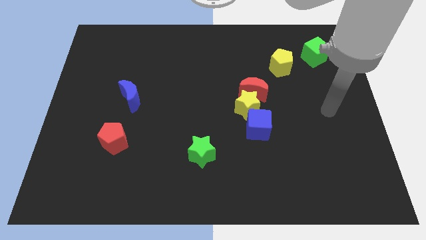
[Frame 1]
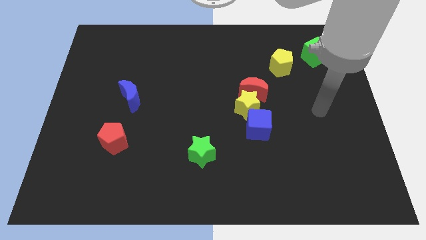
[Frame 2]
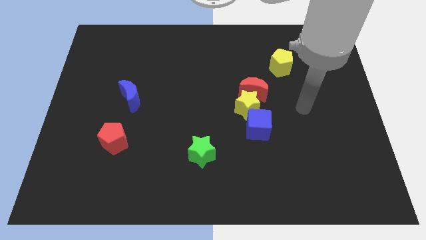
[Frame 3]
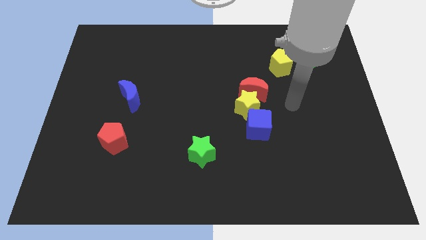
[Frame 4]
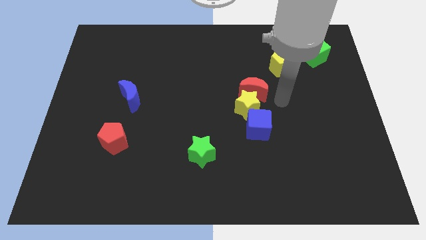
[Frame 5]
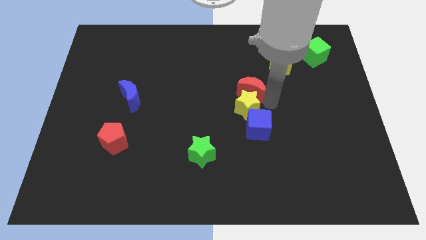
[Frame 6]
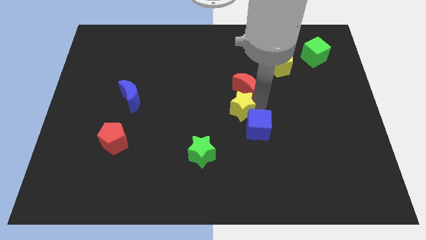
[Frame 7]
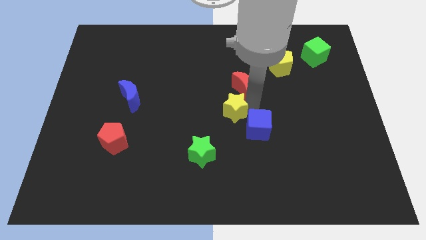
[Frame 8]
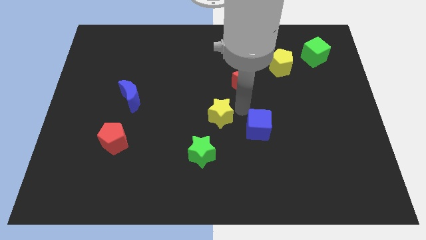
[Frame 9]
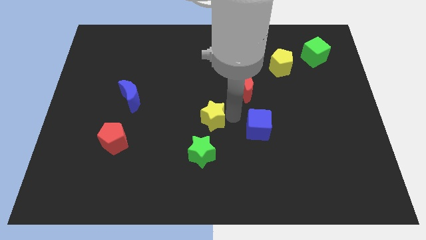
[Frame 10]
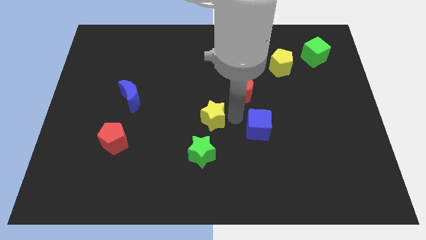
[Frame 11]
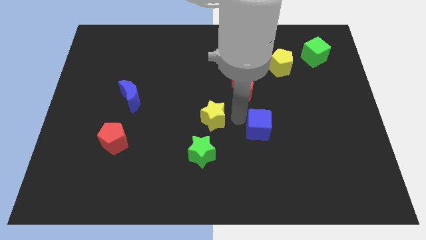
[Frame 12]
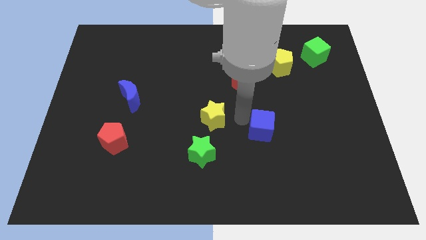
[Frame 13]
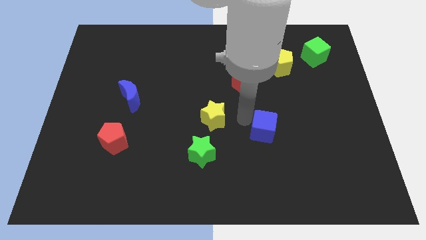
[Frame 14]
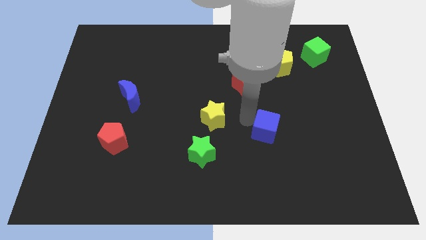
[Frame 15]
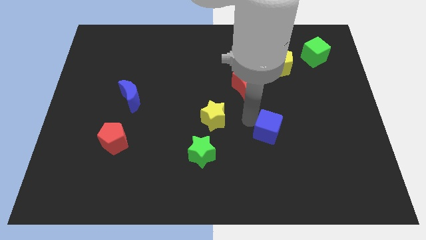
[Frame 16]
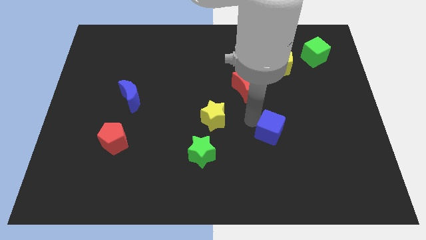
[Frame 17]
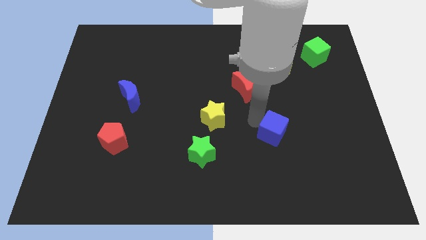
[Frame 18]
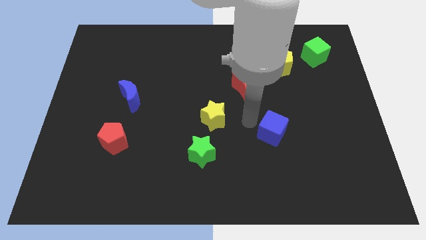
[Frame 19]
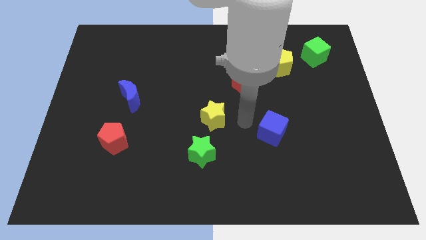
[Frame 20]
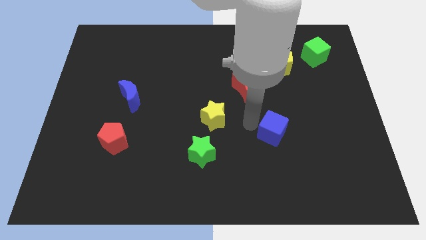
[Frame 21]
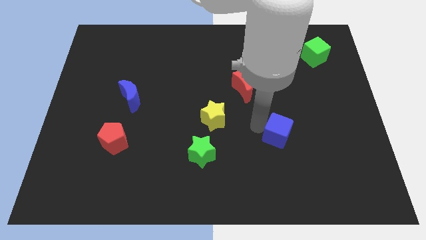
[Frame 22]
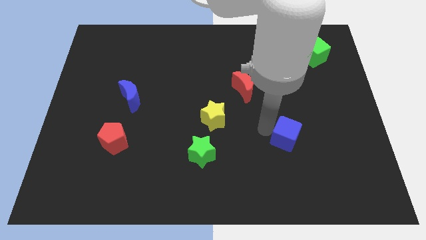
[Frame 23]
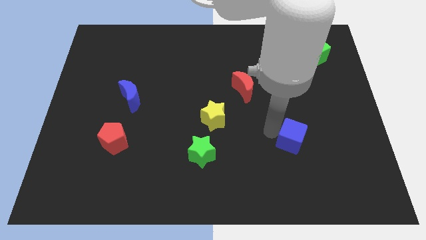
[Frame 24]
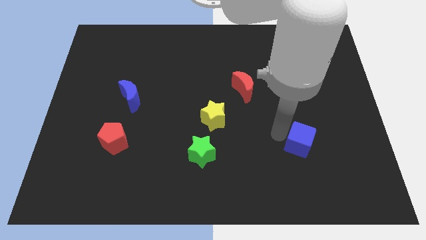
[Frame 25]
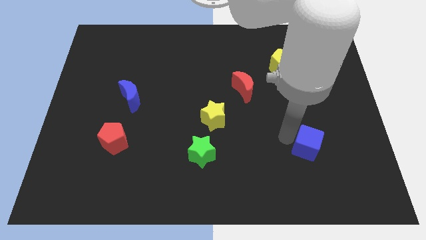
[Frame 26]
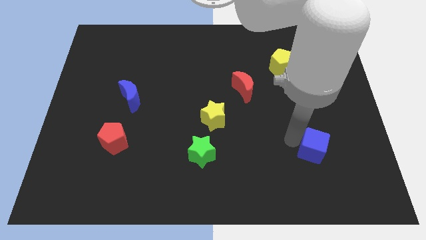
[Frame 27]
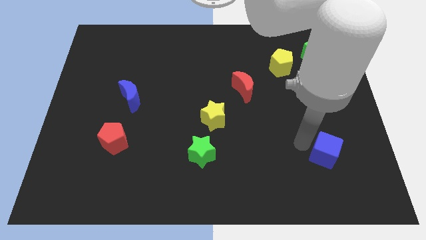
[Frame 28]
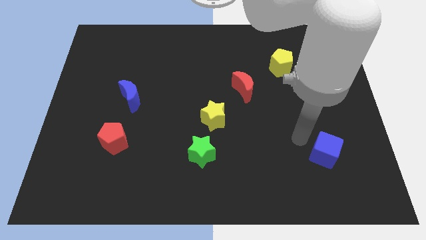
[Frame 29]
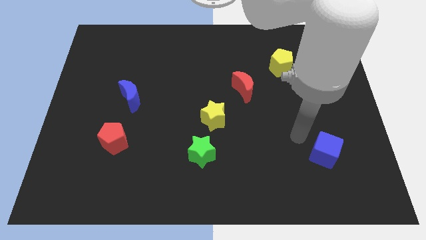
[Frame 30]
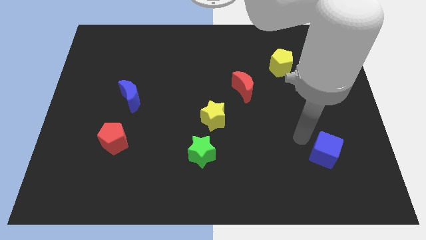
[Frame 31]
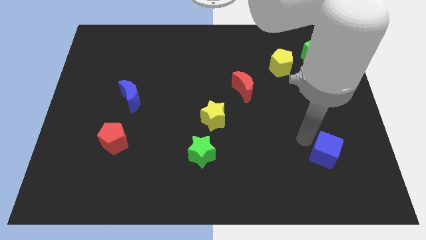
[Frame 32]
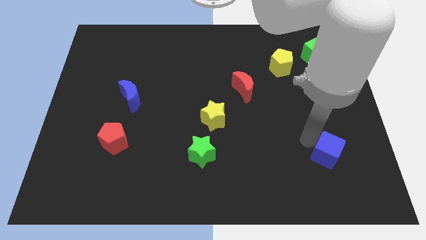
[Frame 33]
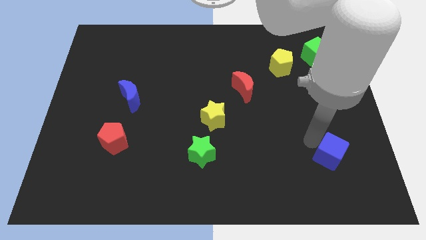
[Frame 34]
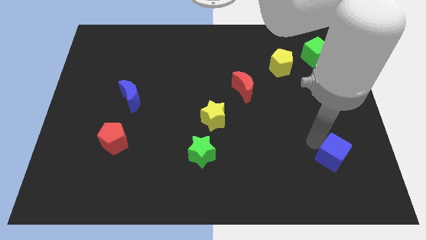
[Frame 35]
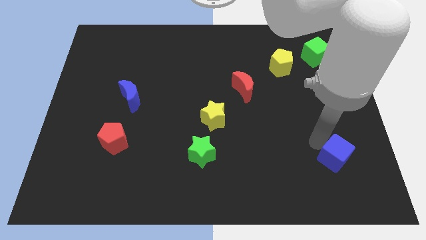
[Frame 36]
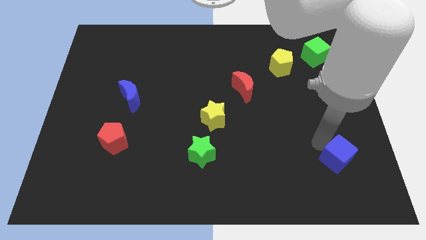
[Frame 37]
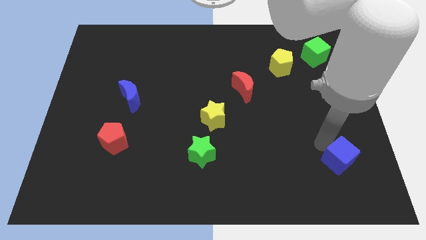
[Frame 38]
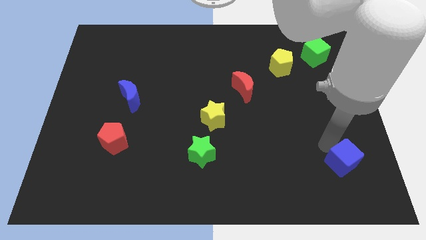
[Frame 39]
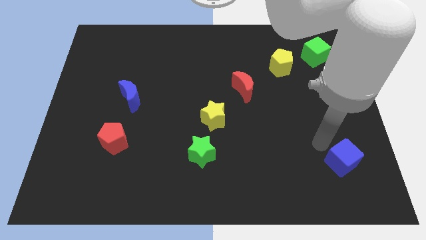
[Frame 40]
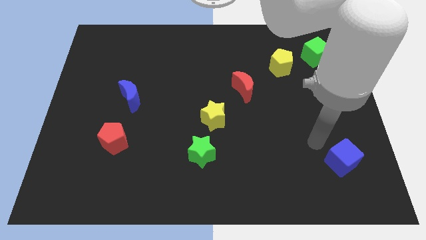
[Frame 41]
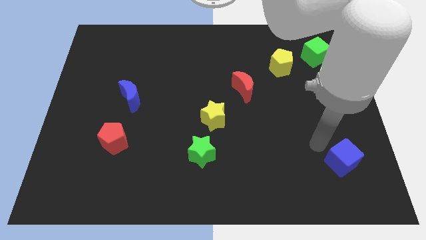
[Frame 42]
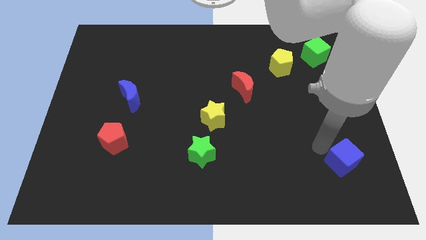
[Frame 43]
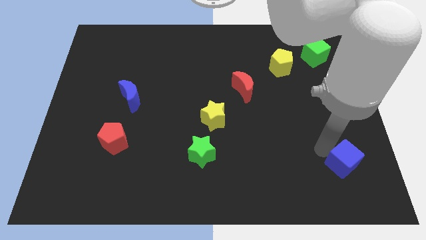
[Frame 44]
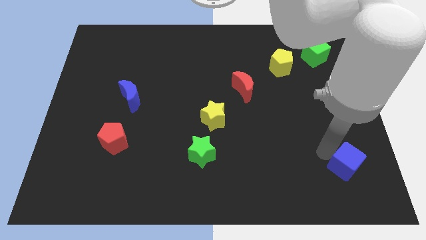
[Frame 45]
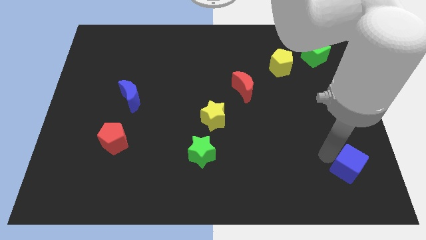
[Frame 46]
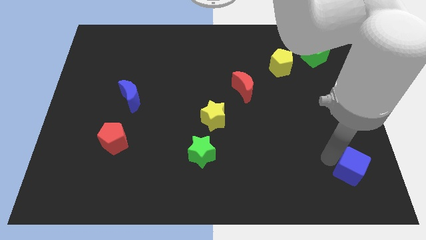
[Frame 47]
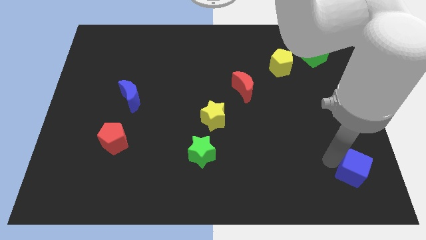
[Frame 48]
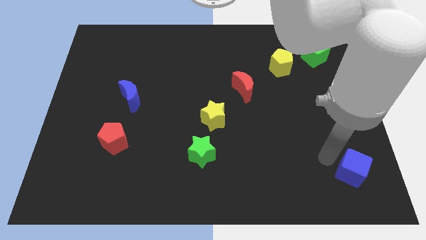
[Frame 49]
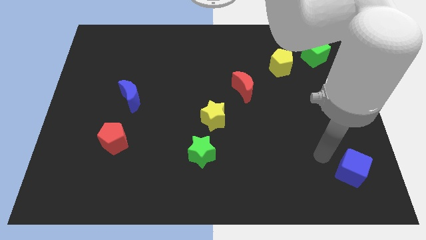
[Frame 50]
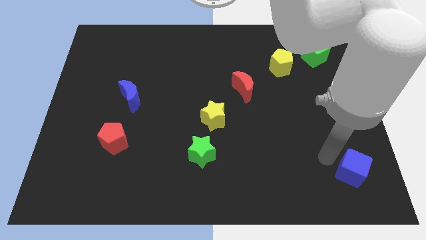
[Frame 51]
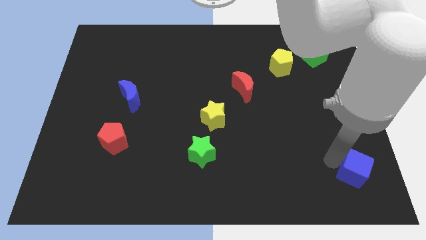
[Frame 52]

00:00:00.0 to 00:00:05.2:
slide the blue cube to the bottom right corner

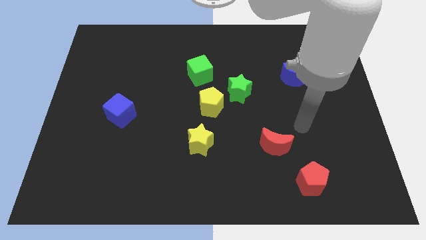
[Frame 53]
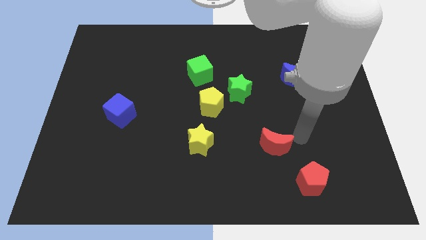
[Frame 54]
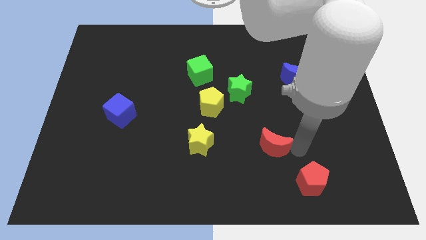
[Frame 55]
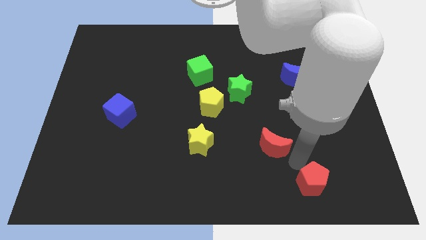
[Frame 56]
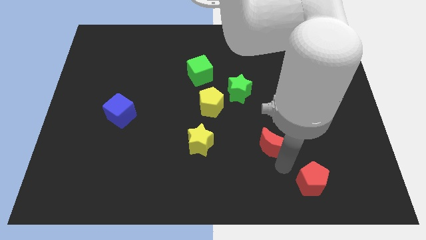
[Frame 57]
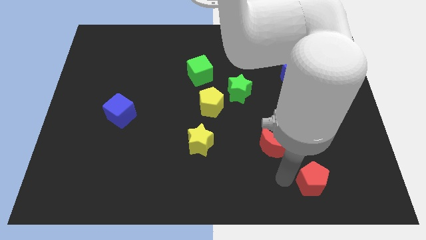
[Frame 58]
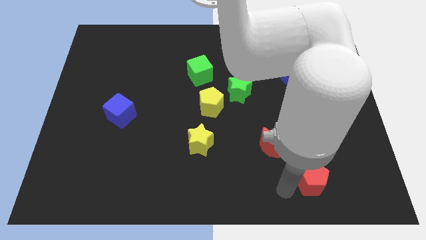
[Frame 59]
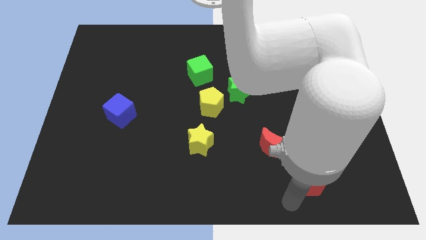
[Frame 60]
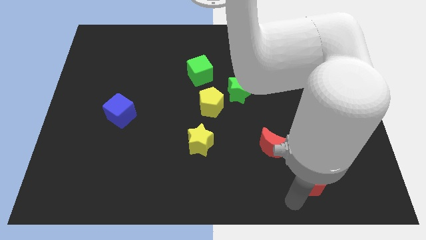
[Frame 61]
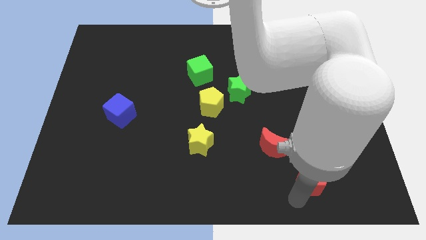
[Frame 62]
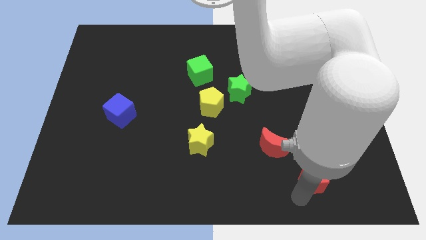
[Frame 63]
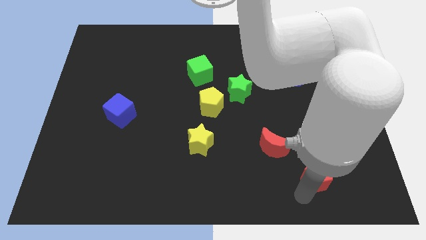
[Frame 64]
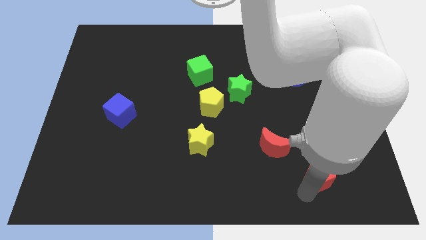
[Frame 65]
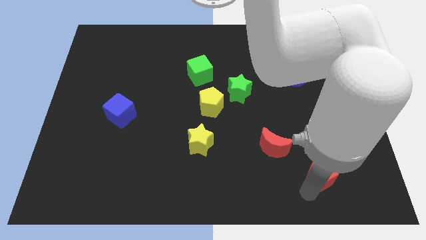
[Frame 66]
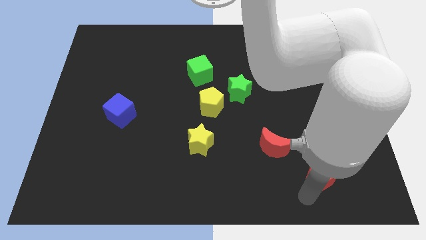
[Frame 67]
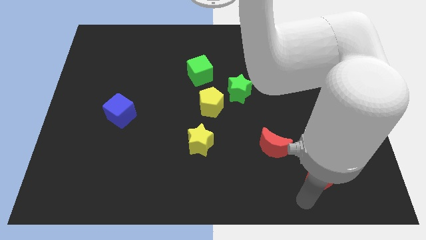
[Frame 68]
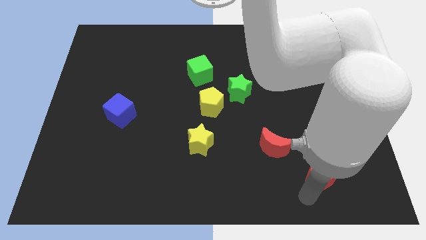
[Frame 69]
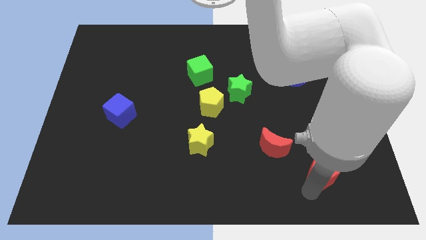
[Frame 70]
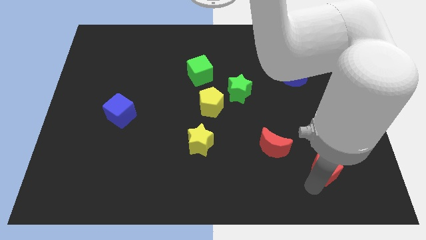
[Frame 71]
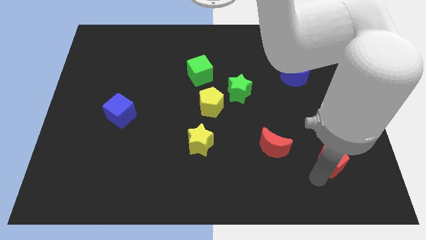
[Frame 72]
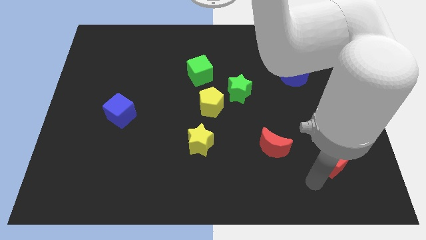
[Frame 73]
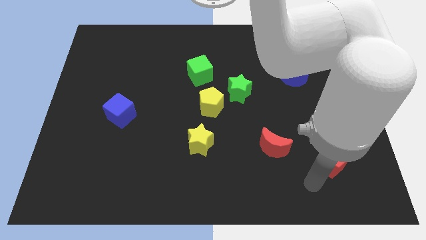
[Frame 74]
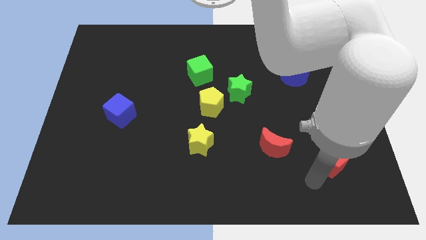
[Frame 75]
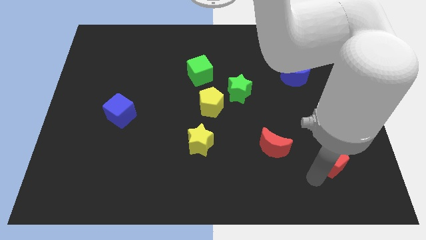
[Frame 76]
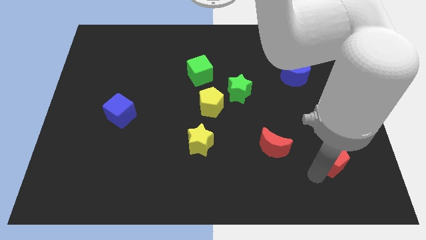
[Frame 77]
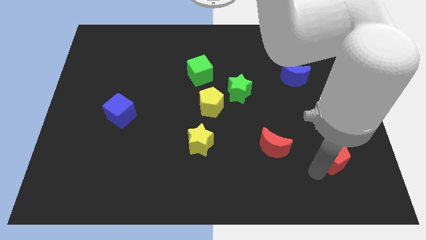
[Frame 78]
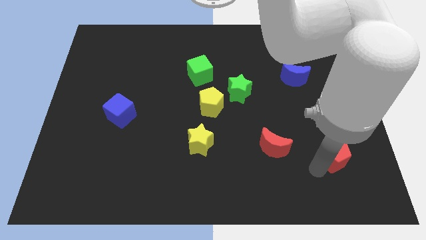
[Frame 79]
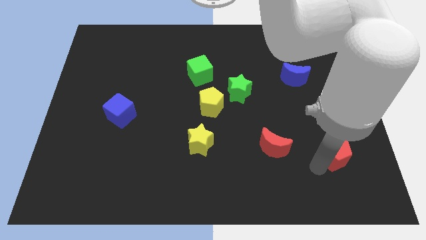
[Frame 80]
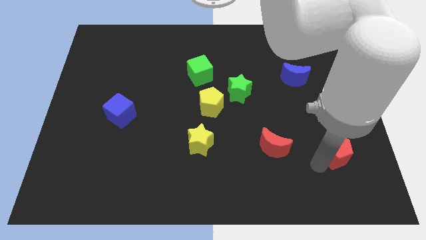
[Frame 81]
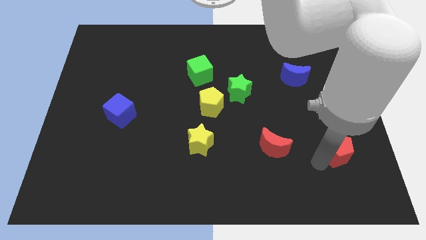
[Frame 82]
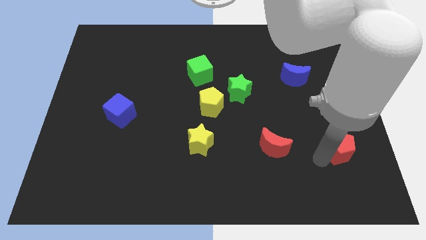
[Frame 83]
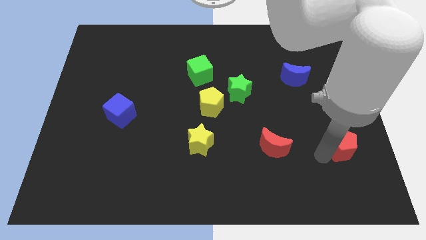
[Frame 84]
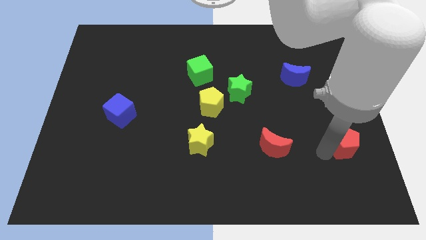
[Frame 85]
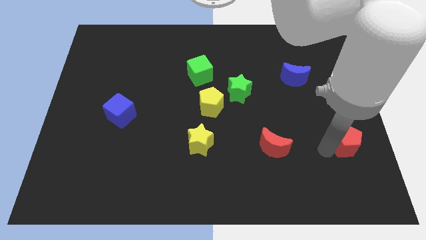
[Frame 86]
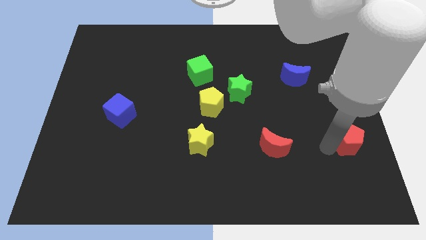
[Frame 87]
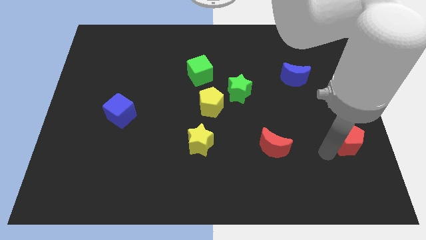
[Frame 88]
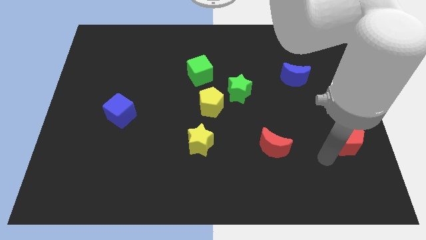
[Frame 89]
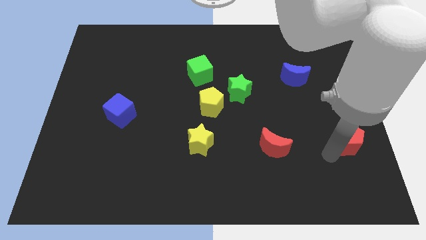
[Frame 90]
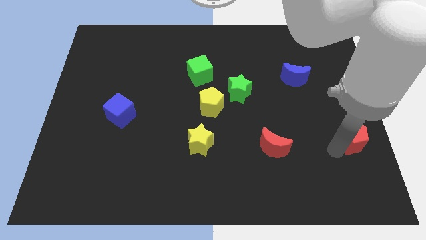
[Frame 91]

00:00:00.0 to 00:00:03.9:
move the red pentagon to the center right
